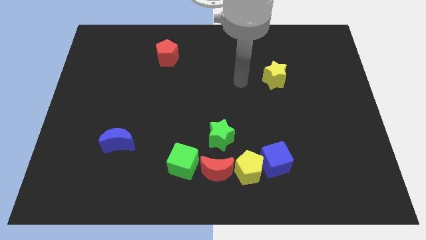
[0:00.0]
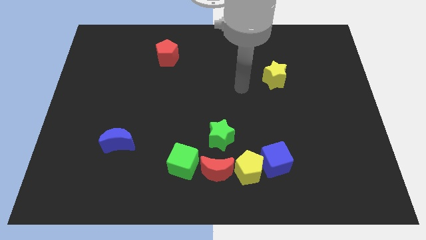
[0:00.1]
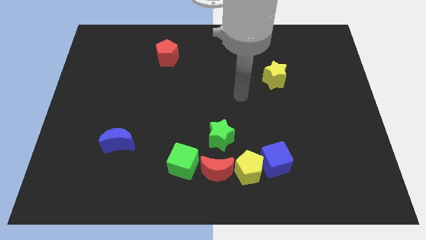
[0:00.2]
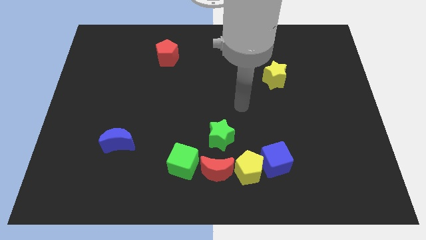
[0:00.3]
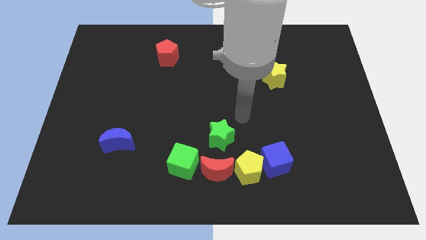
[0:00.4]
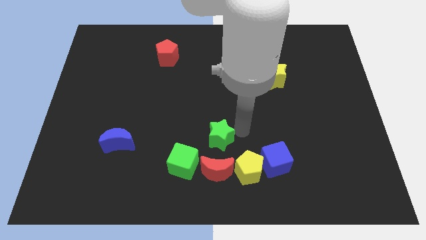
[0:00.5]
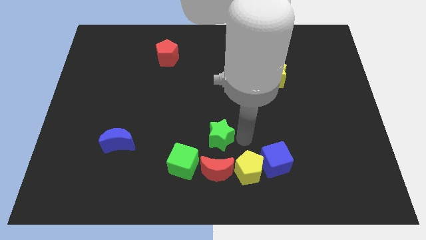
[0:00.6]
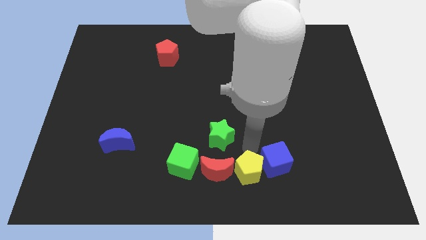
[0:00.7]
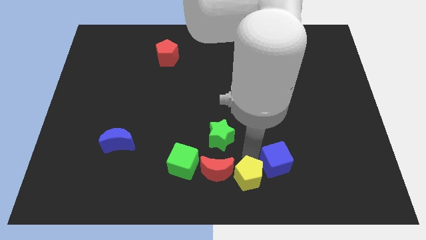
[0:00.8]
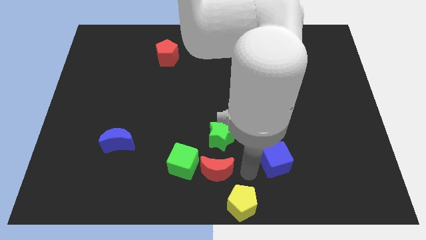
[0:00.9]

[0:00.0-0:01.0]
pull the blue cube apart from the yellow pentagon

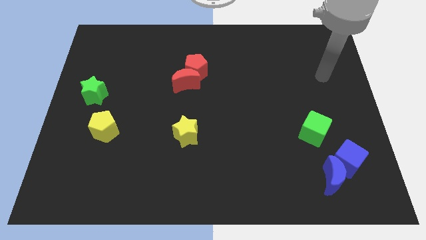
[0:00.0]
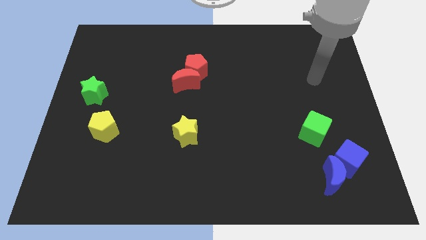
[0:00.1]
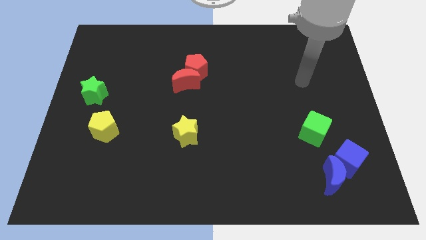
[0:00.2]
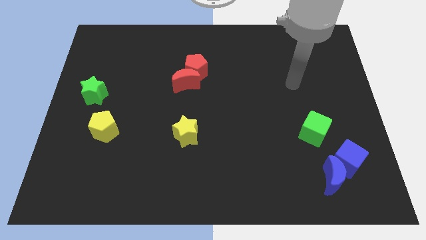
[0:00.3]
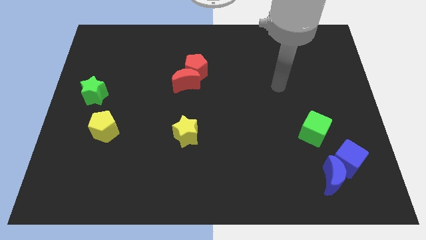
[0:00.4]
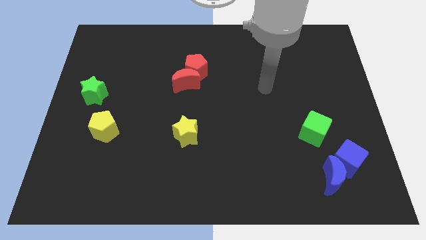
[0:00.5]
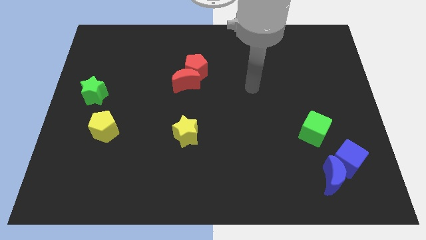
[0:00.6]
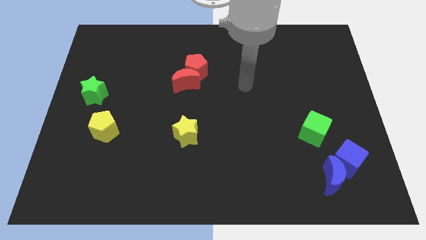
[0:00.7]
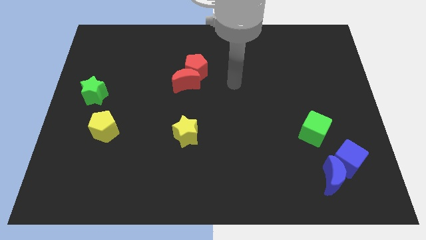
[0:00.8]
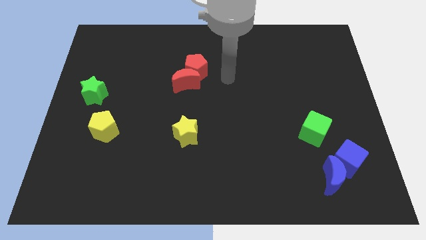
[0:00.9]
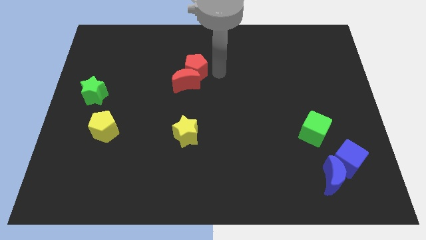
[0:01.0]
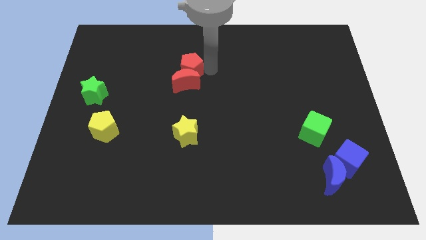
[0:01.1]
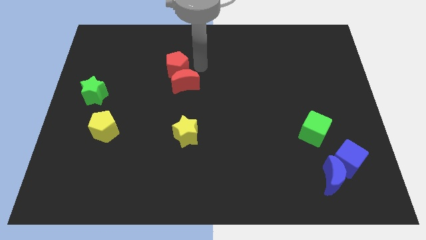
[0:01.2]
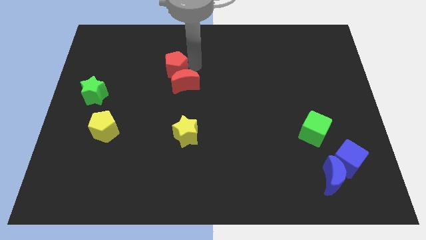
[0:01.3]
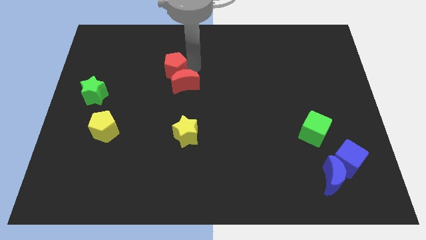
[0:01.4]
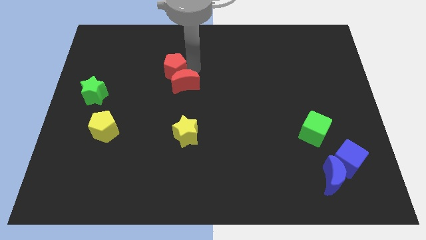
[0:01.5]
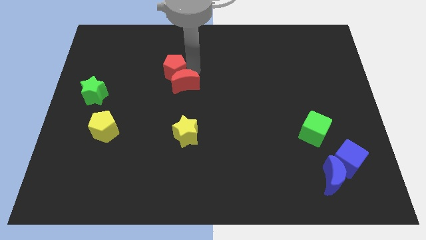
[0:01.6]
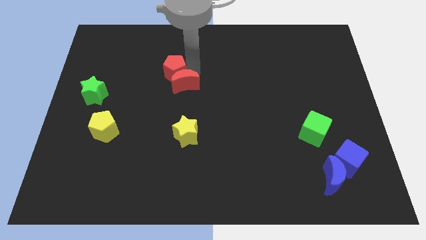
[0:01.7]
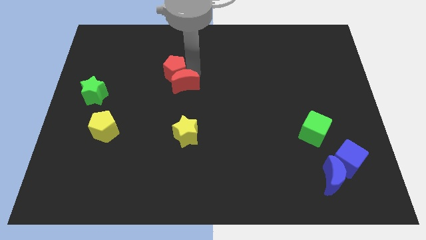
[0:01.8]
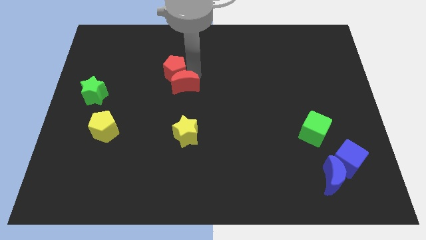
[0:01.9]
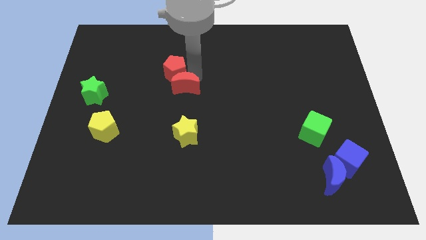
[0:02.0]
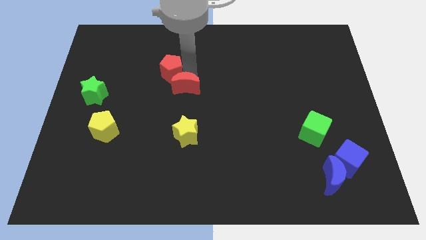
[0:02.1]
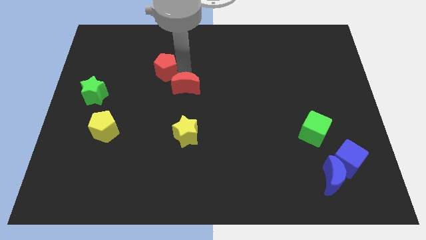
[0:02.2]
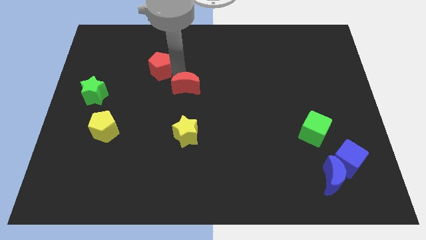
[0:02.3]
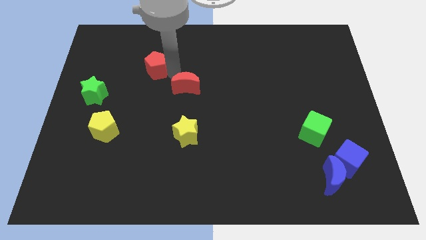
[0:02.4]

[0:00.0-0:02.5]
move the red moon away from the red pentagon

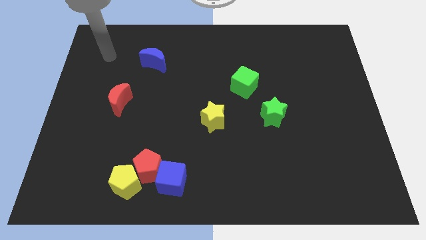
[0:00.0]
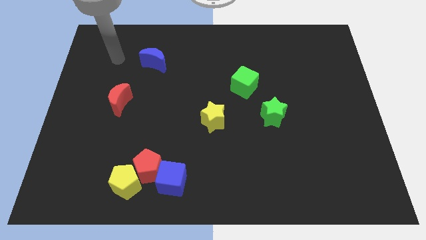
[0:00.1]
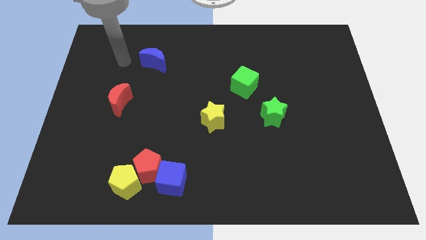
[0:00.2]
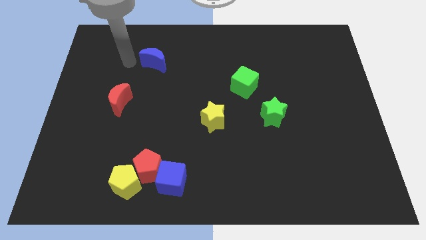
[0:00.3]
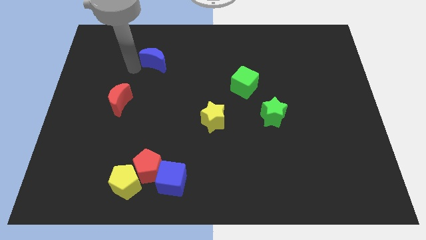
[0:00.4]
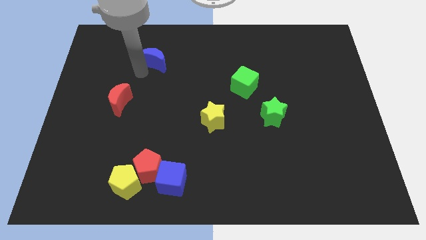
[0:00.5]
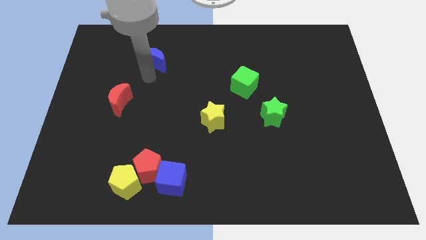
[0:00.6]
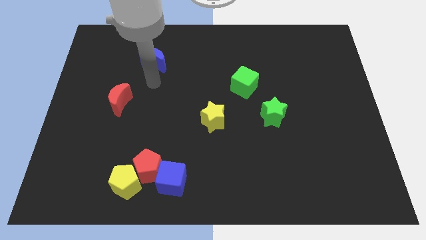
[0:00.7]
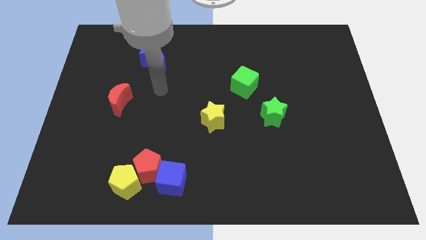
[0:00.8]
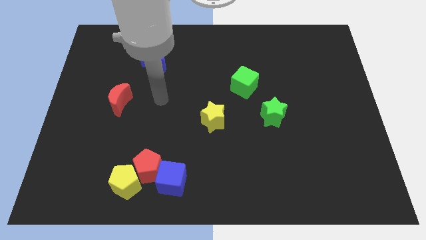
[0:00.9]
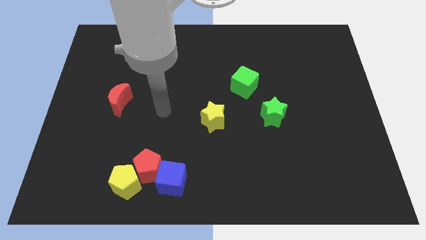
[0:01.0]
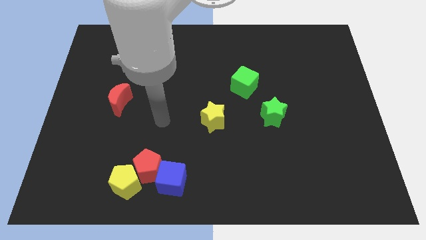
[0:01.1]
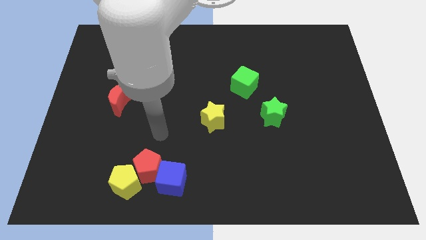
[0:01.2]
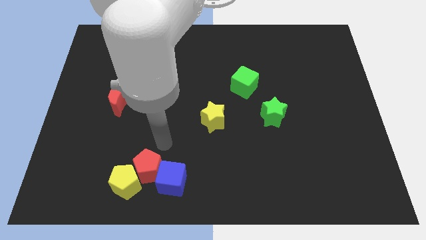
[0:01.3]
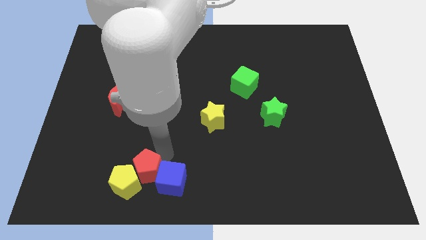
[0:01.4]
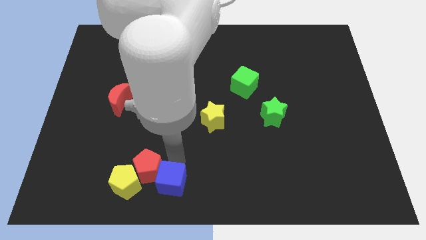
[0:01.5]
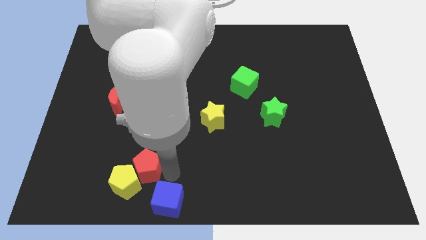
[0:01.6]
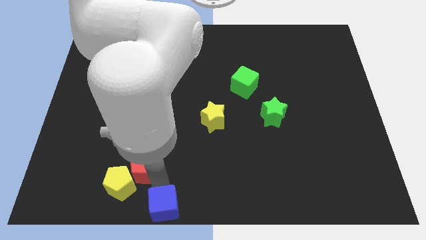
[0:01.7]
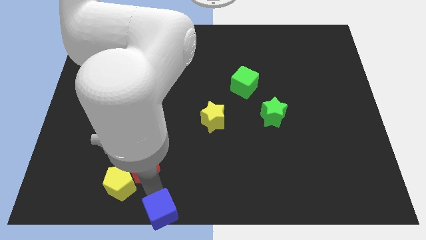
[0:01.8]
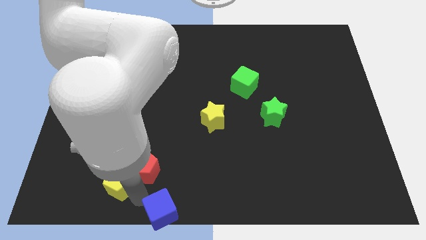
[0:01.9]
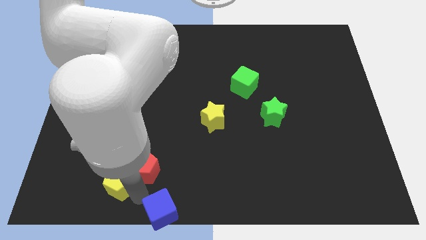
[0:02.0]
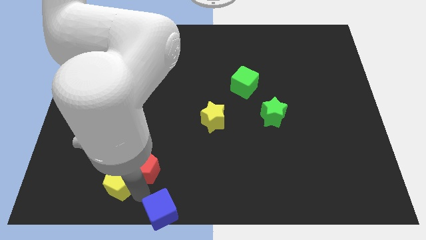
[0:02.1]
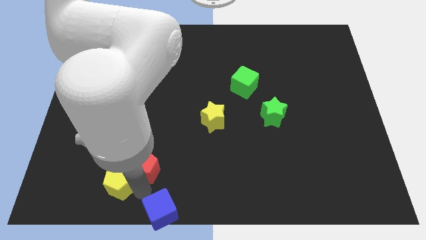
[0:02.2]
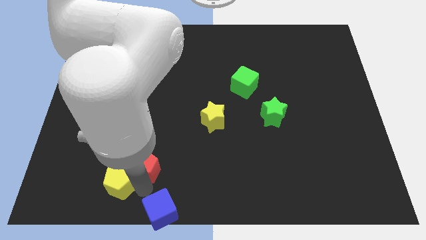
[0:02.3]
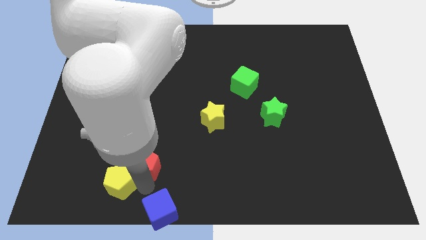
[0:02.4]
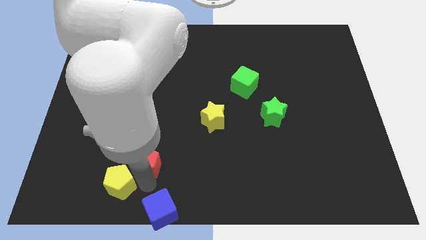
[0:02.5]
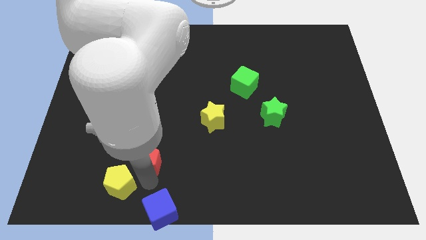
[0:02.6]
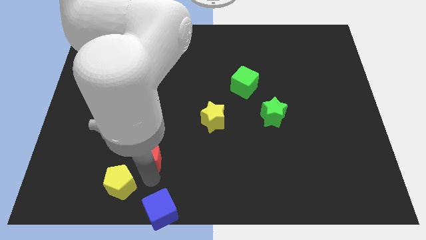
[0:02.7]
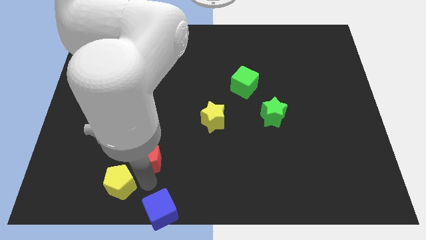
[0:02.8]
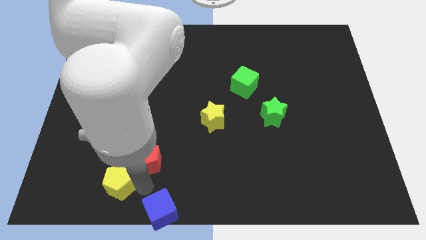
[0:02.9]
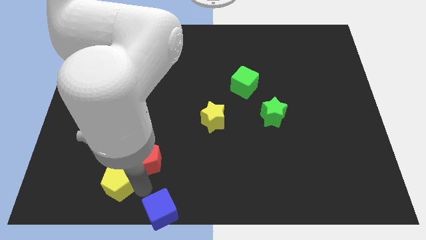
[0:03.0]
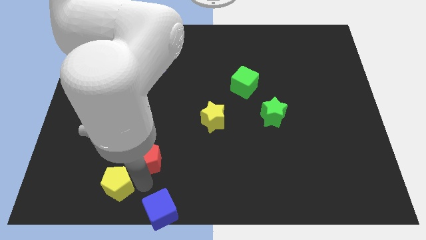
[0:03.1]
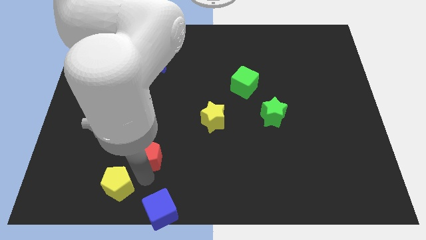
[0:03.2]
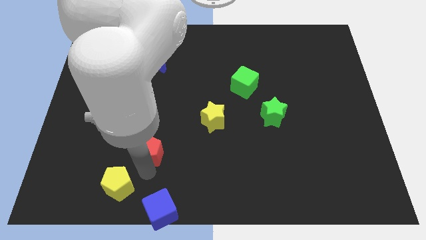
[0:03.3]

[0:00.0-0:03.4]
separate the red pentagon from the blue cube and yellow pentagon

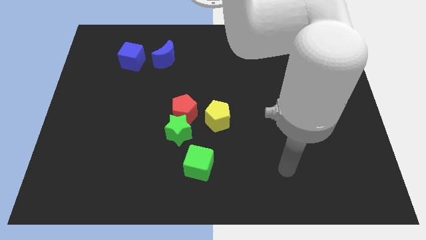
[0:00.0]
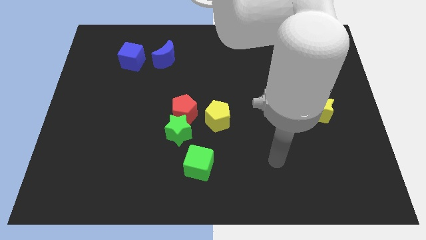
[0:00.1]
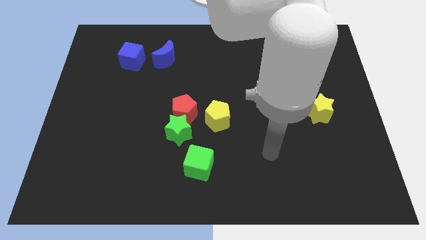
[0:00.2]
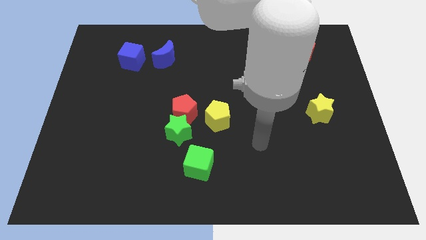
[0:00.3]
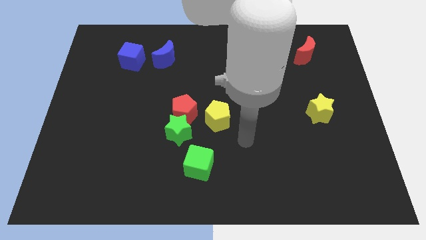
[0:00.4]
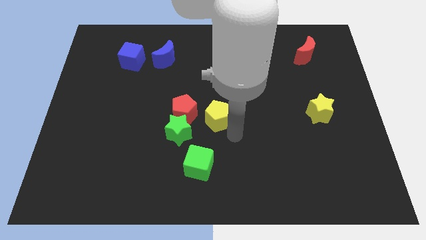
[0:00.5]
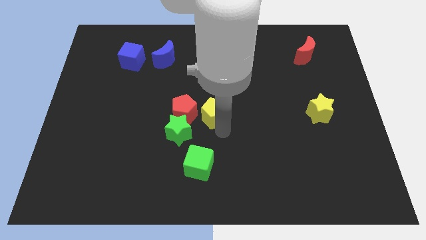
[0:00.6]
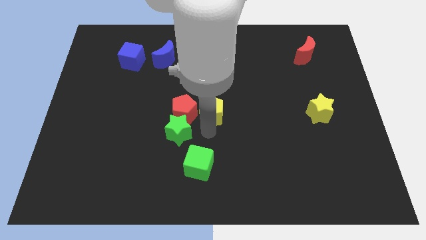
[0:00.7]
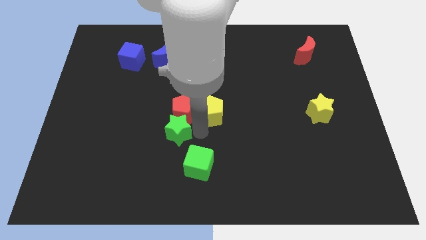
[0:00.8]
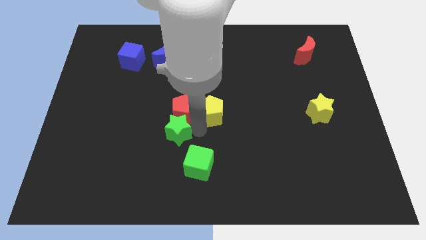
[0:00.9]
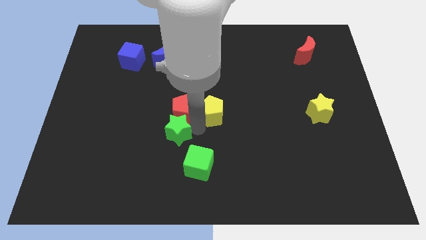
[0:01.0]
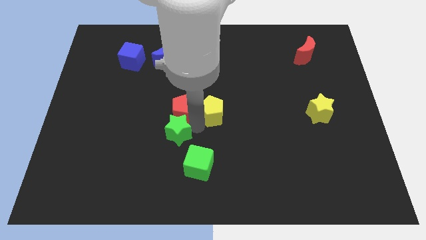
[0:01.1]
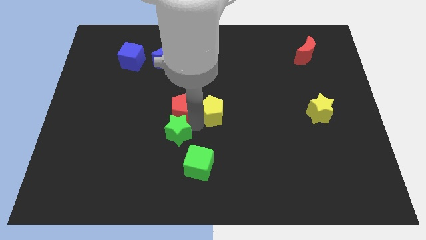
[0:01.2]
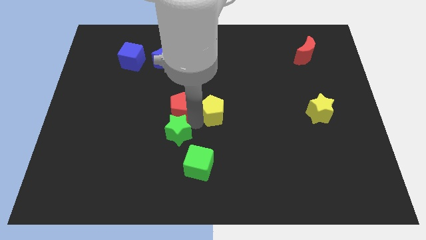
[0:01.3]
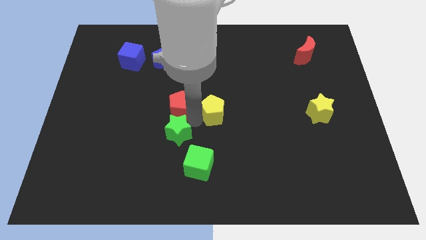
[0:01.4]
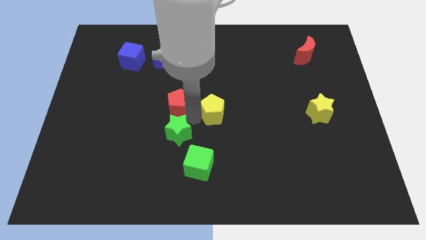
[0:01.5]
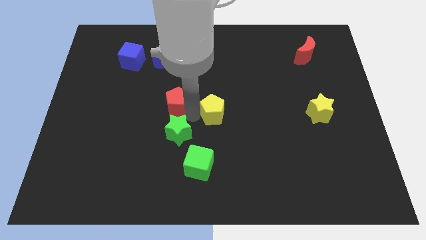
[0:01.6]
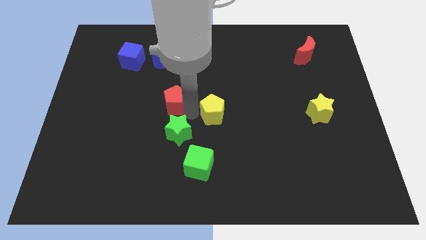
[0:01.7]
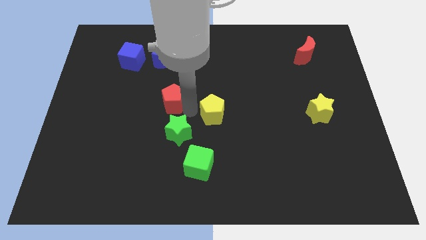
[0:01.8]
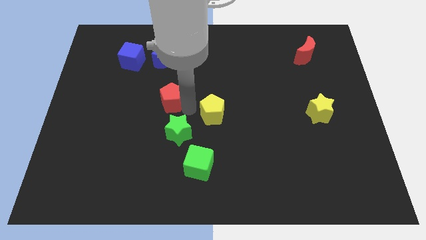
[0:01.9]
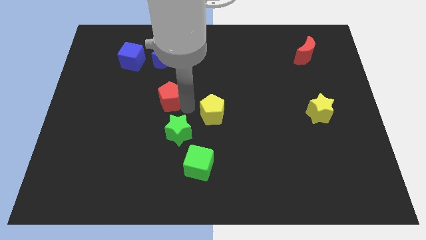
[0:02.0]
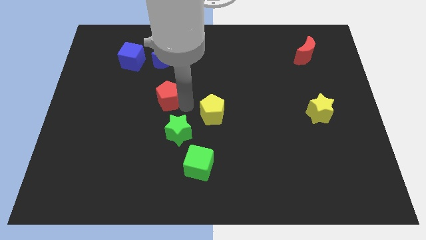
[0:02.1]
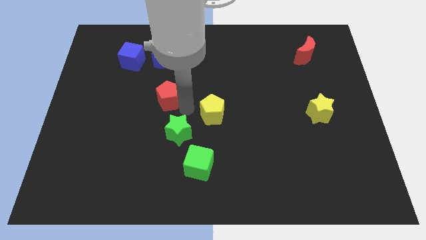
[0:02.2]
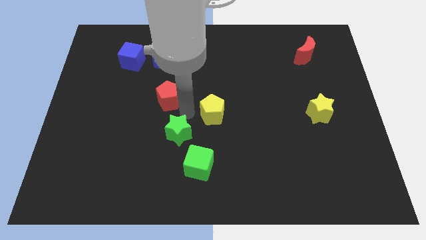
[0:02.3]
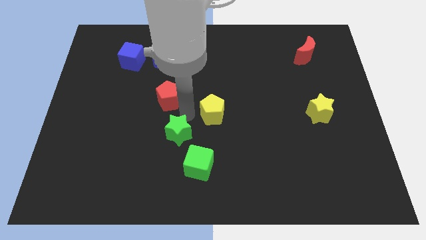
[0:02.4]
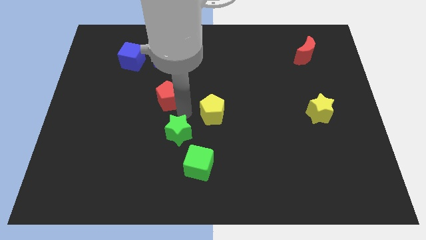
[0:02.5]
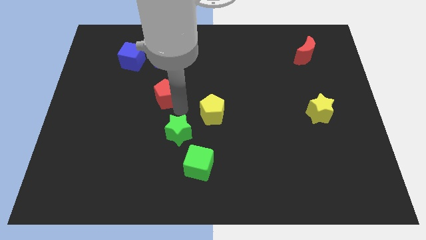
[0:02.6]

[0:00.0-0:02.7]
separate the red pentagon from the green star and yellow pentagon
